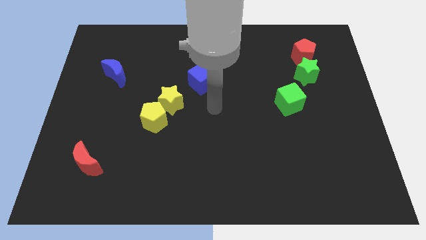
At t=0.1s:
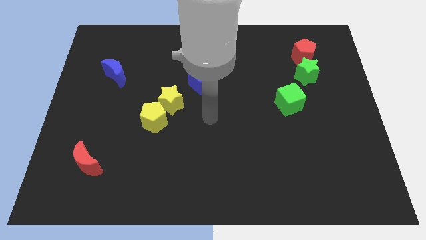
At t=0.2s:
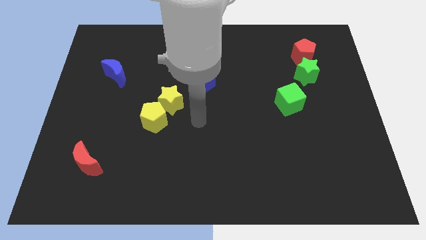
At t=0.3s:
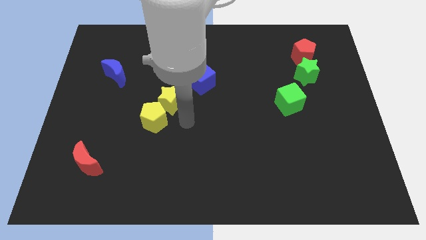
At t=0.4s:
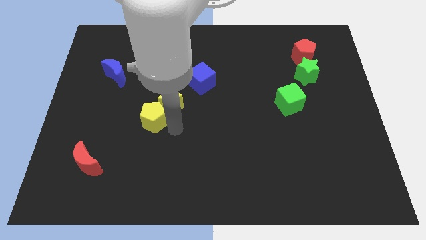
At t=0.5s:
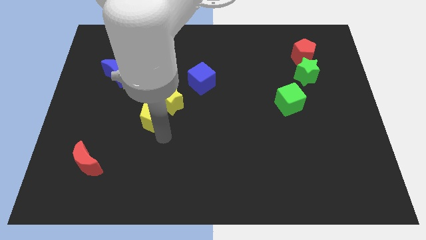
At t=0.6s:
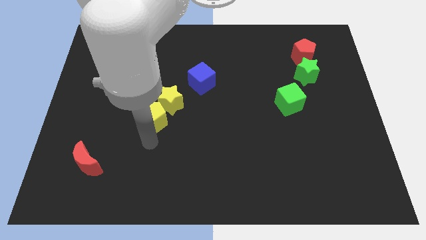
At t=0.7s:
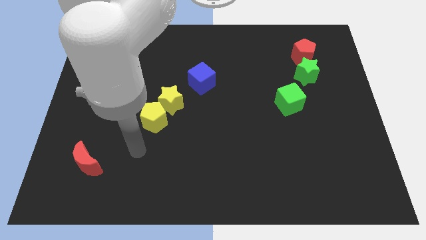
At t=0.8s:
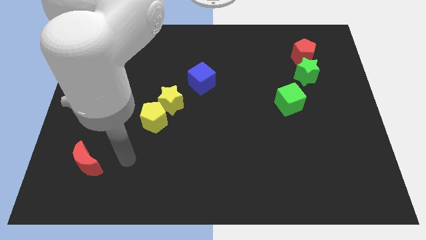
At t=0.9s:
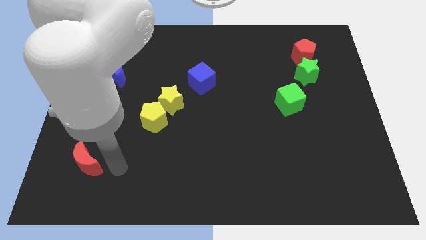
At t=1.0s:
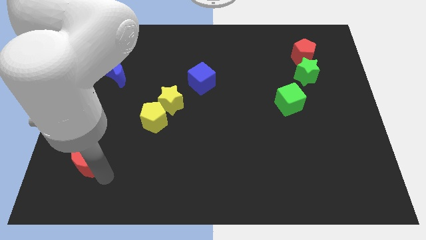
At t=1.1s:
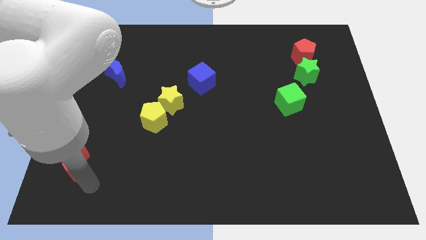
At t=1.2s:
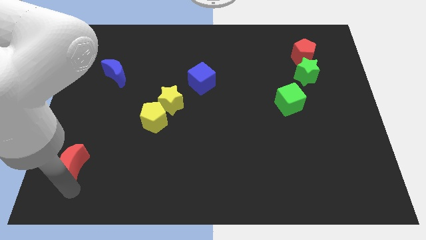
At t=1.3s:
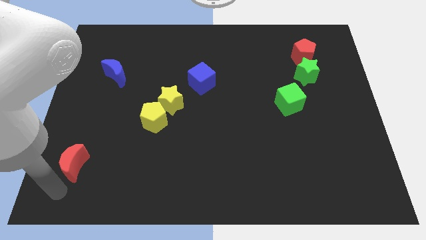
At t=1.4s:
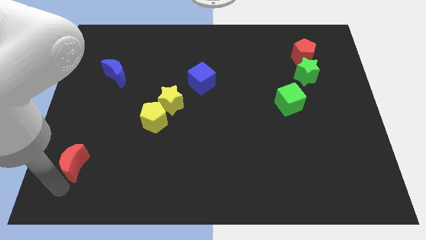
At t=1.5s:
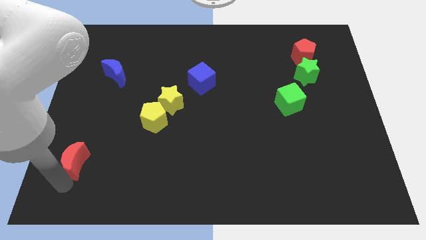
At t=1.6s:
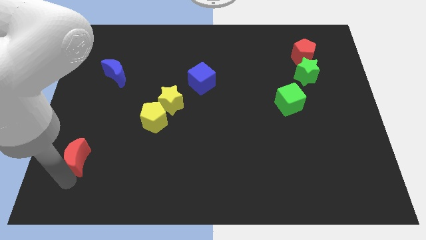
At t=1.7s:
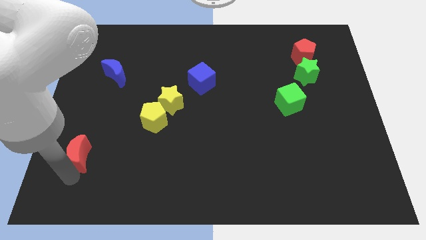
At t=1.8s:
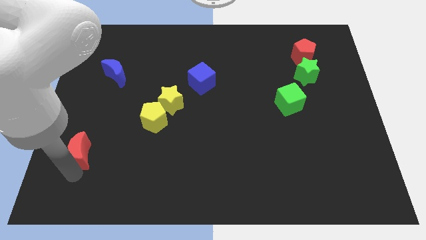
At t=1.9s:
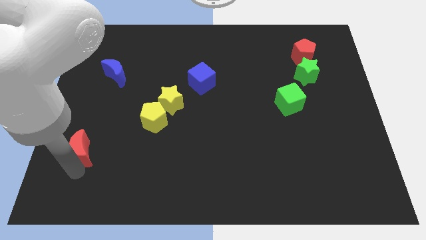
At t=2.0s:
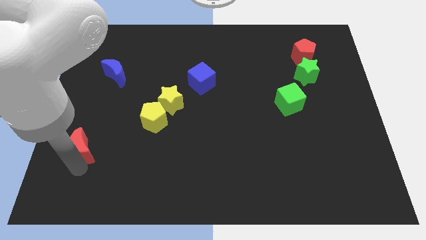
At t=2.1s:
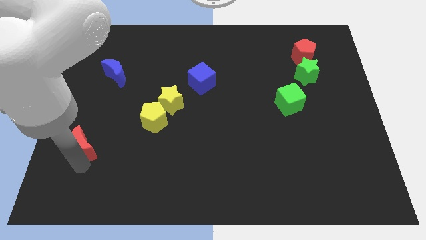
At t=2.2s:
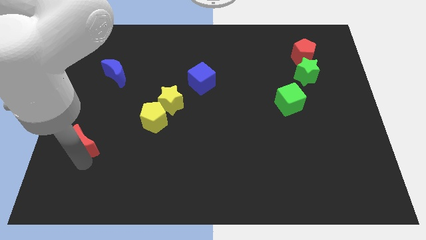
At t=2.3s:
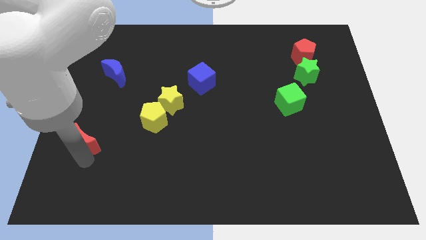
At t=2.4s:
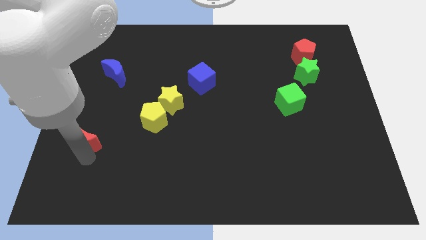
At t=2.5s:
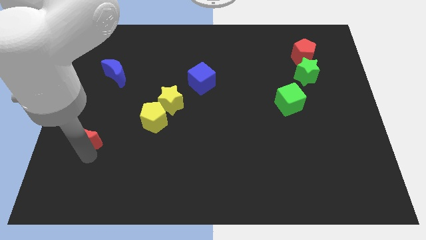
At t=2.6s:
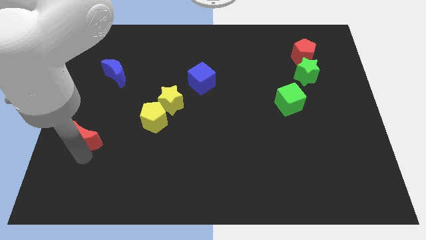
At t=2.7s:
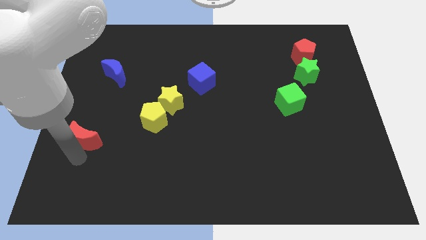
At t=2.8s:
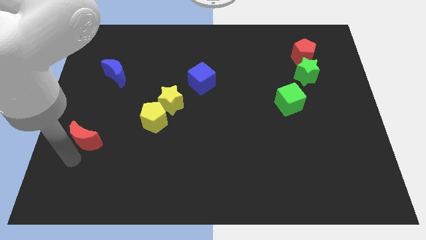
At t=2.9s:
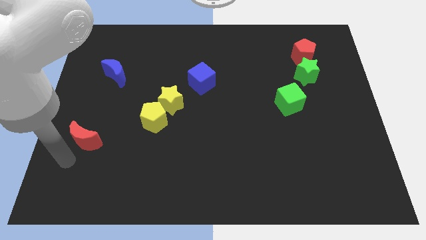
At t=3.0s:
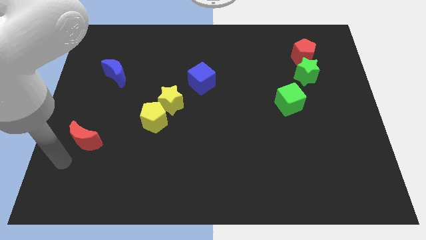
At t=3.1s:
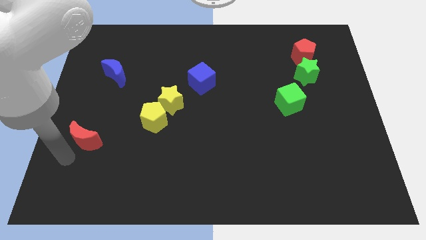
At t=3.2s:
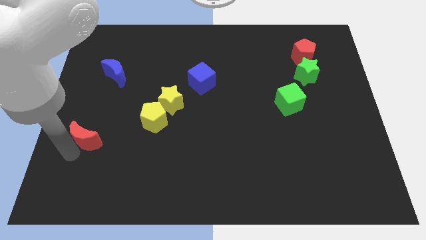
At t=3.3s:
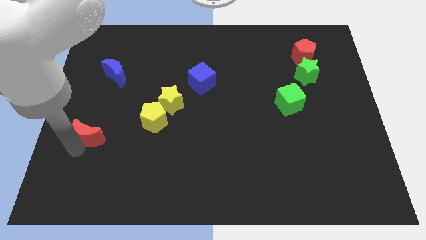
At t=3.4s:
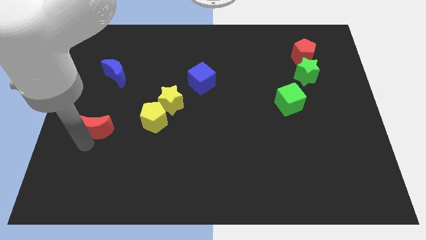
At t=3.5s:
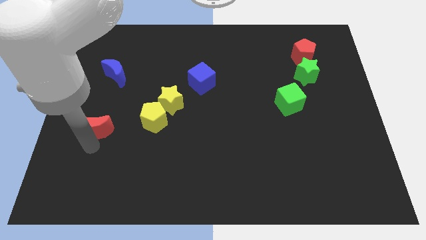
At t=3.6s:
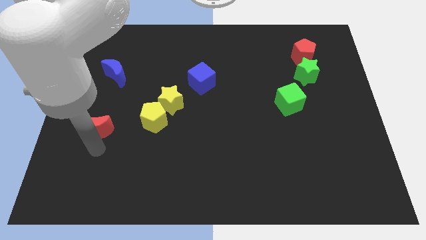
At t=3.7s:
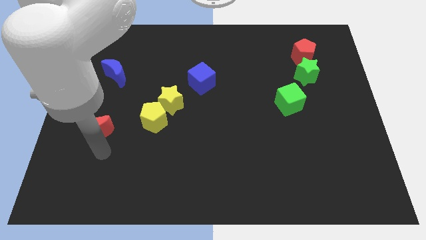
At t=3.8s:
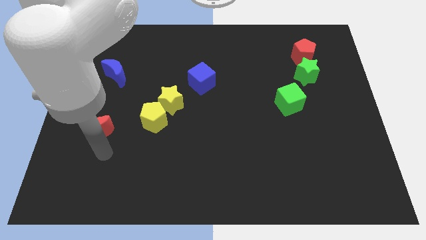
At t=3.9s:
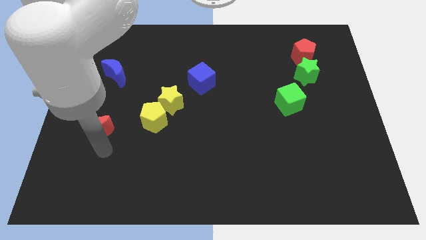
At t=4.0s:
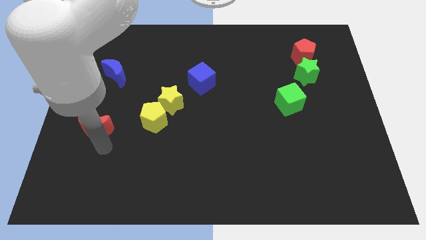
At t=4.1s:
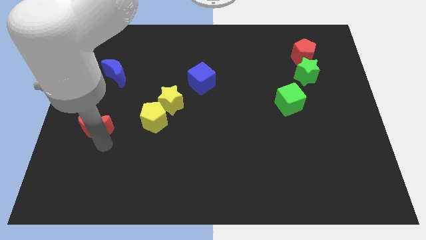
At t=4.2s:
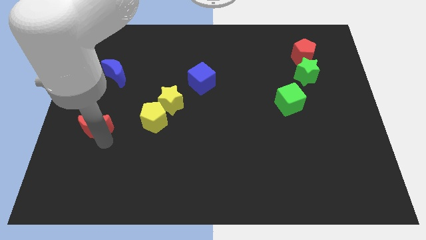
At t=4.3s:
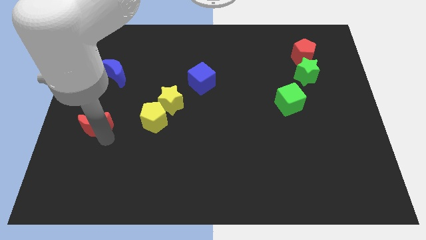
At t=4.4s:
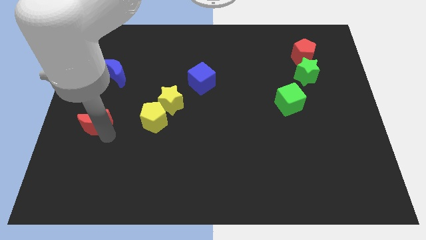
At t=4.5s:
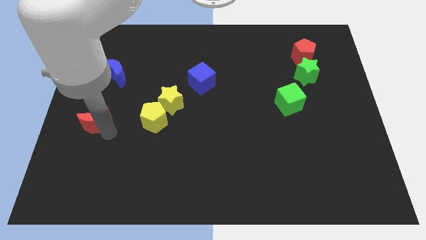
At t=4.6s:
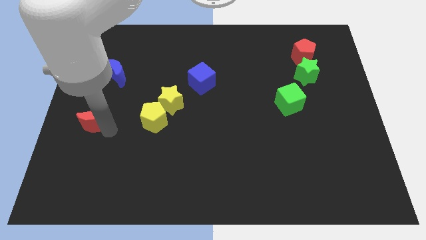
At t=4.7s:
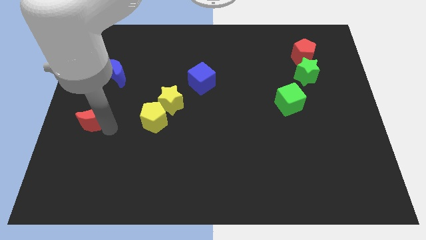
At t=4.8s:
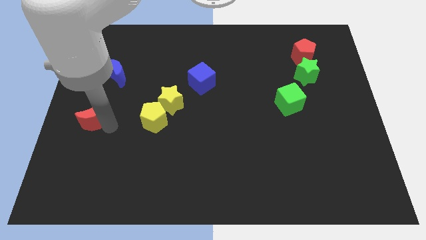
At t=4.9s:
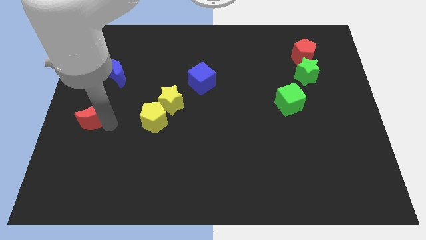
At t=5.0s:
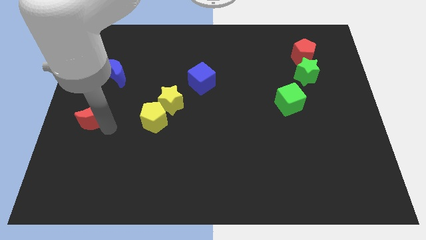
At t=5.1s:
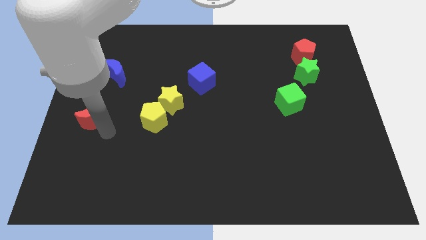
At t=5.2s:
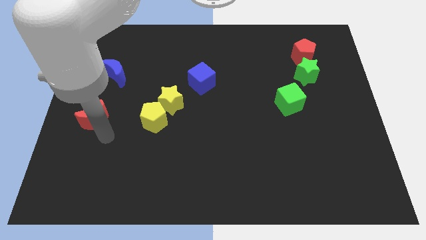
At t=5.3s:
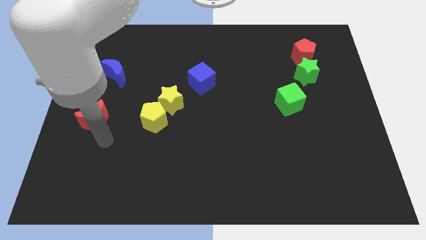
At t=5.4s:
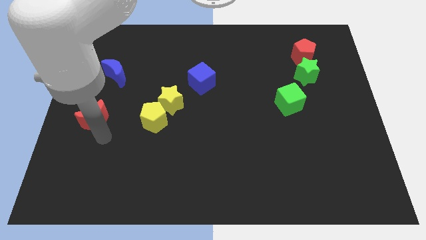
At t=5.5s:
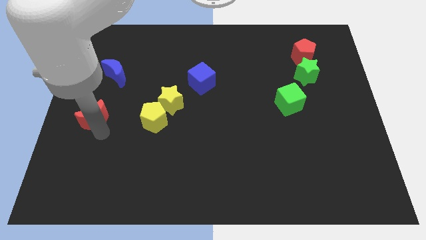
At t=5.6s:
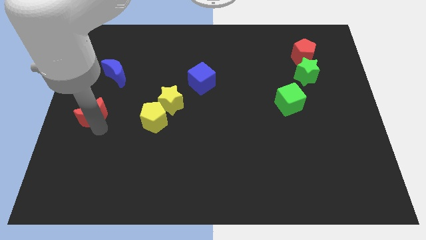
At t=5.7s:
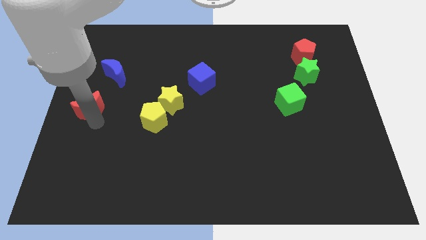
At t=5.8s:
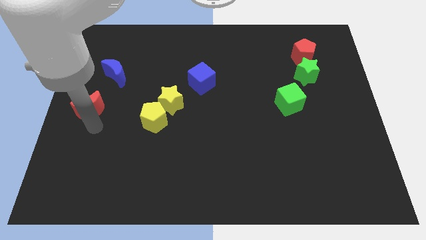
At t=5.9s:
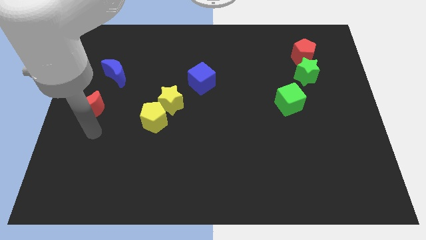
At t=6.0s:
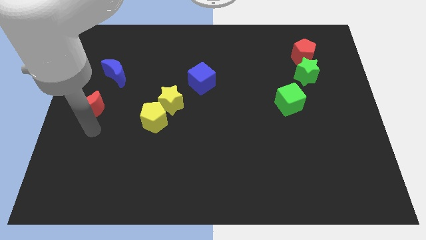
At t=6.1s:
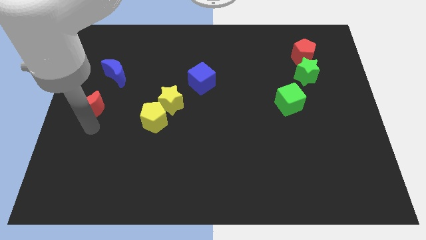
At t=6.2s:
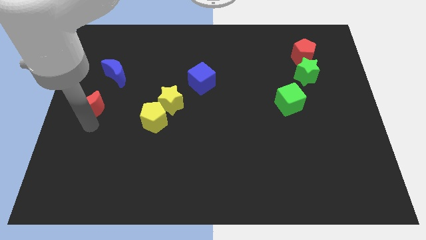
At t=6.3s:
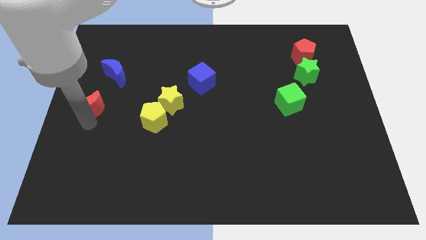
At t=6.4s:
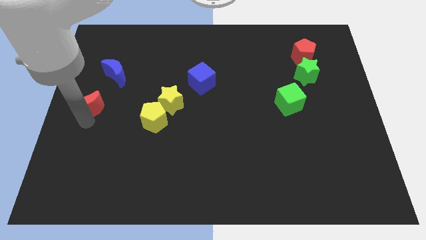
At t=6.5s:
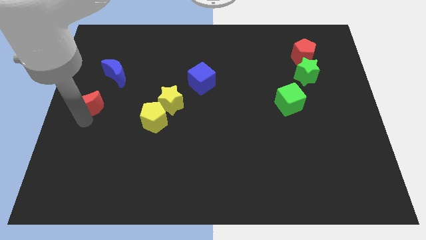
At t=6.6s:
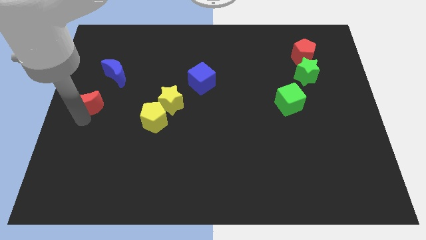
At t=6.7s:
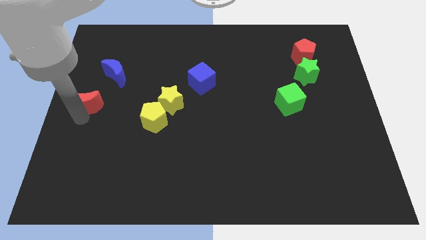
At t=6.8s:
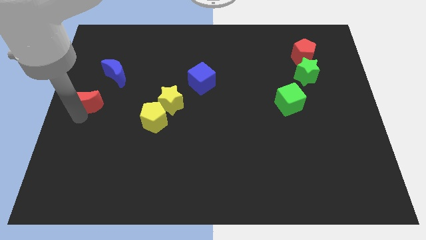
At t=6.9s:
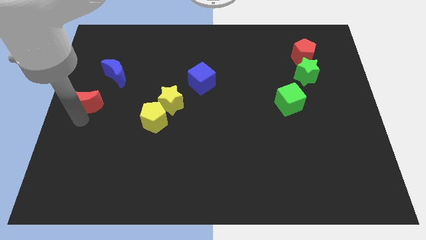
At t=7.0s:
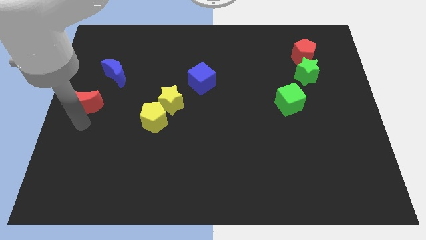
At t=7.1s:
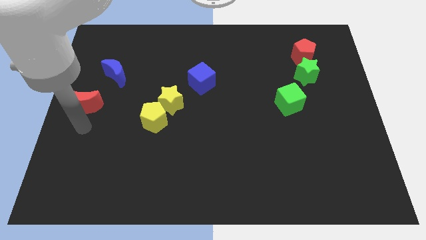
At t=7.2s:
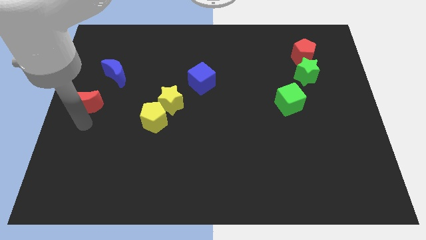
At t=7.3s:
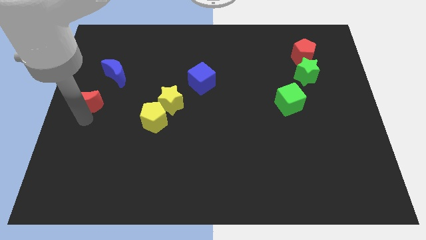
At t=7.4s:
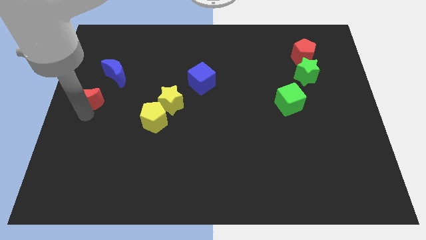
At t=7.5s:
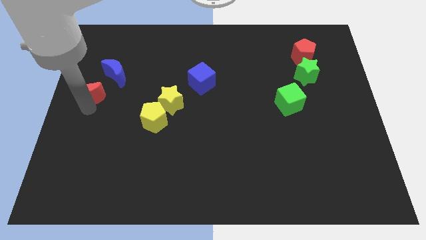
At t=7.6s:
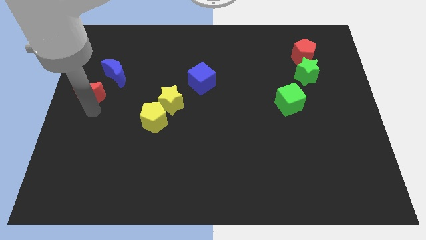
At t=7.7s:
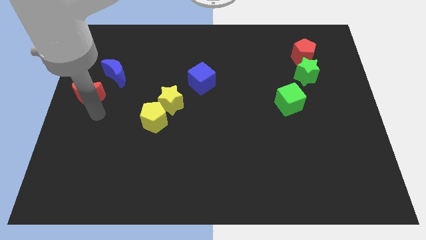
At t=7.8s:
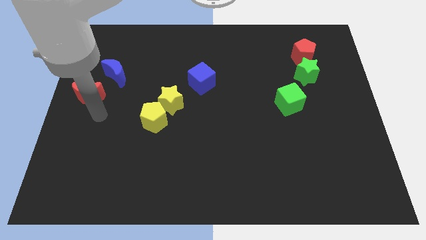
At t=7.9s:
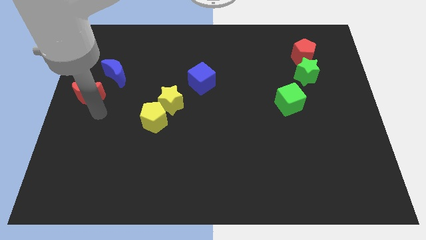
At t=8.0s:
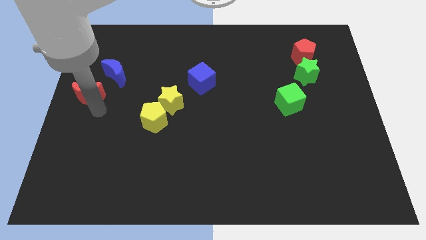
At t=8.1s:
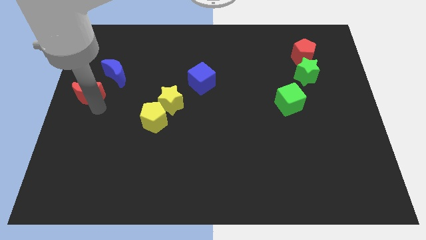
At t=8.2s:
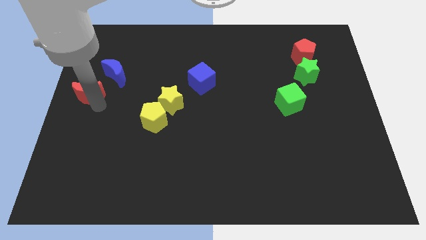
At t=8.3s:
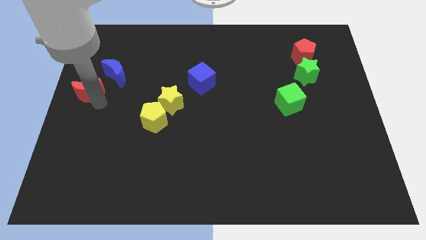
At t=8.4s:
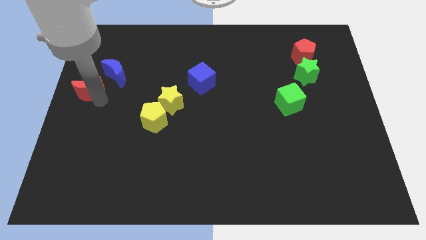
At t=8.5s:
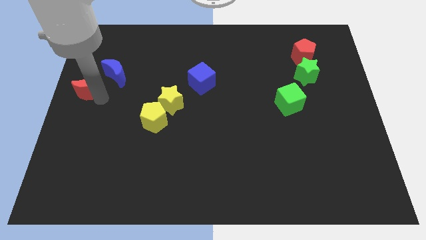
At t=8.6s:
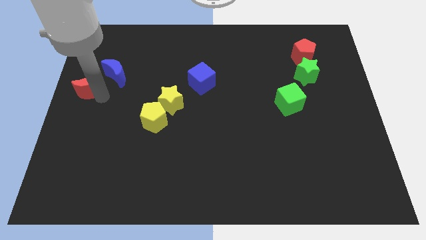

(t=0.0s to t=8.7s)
push the red moon upwards
